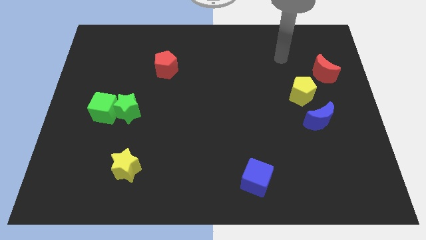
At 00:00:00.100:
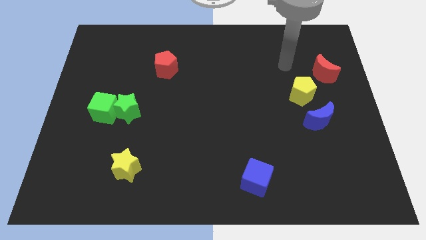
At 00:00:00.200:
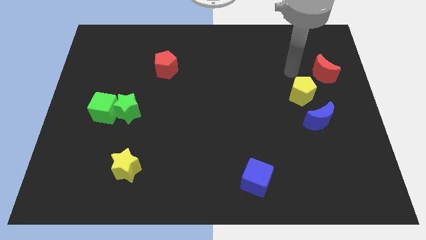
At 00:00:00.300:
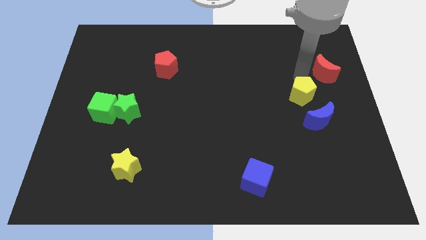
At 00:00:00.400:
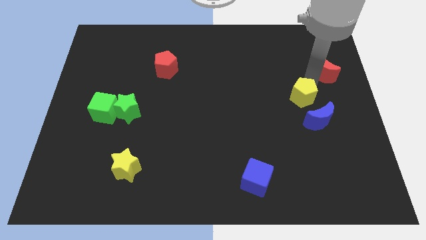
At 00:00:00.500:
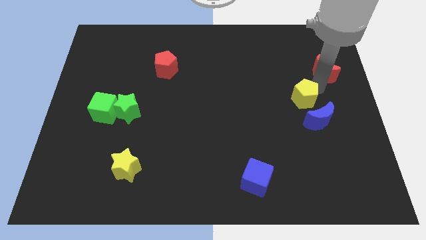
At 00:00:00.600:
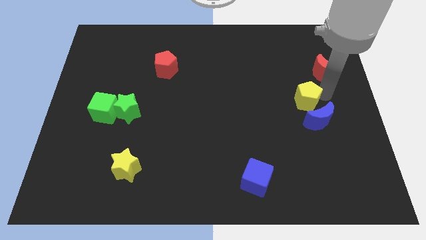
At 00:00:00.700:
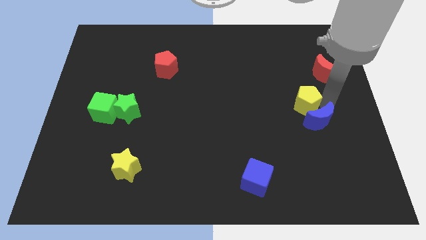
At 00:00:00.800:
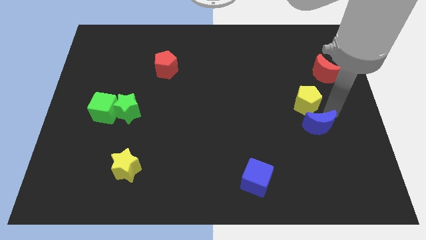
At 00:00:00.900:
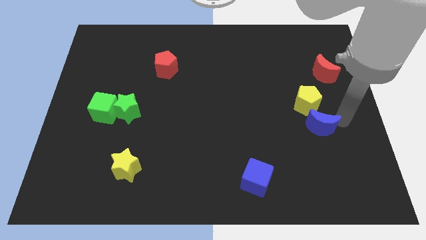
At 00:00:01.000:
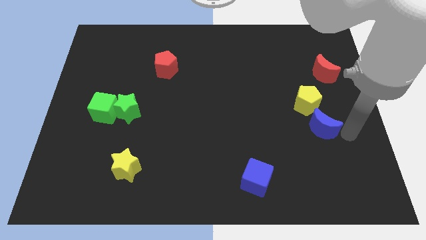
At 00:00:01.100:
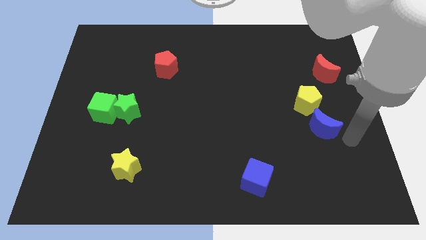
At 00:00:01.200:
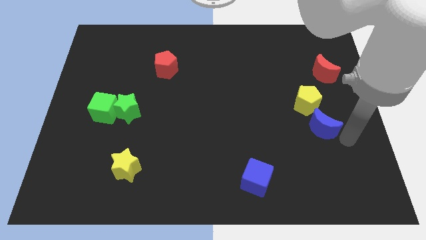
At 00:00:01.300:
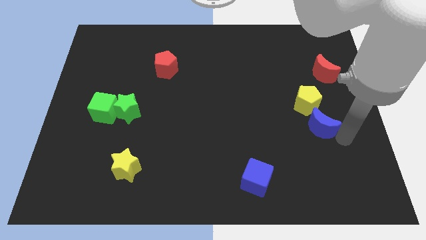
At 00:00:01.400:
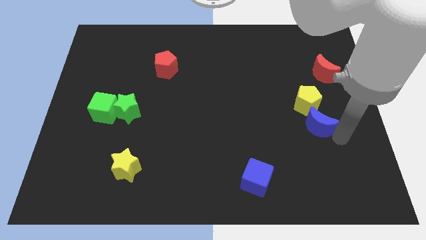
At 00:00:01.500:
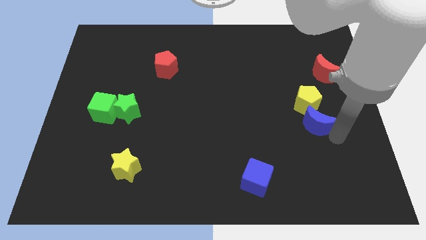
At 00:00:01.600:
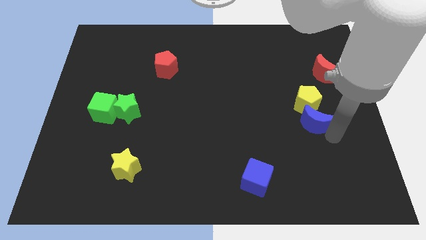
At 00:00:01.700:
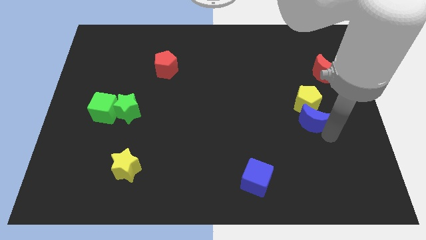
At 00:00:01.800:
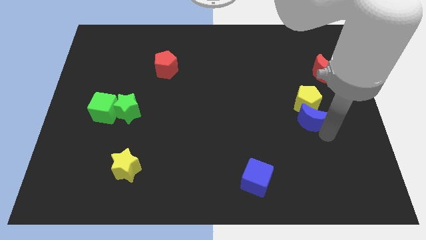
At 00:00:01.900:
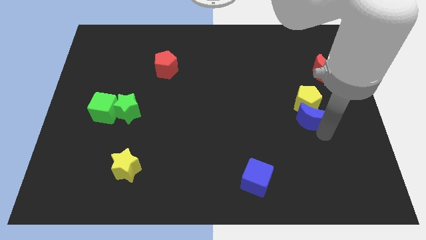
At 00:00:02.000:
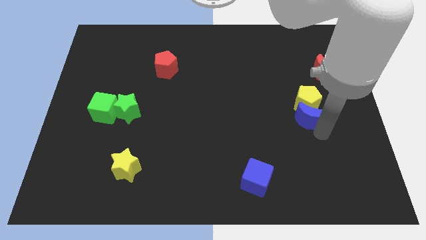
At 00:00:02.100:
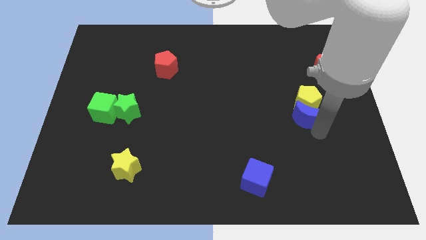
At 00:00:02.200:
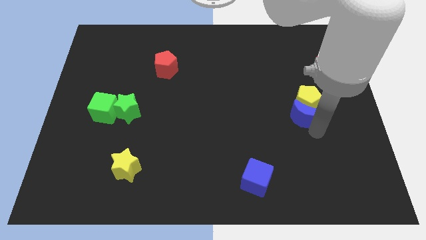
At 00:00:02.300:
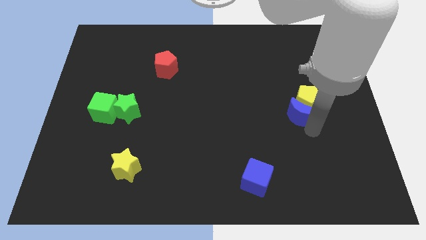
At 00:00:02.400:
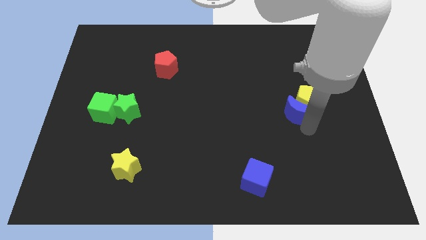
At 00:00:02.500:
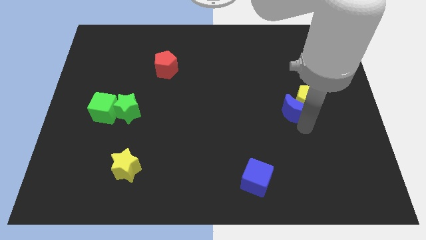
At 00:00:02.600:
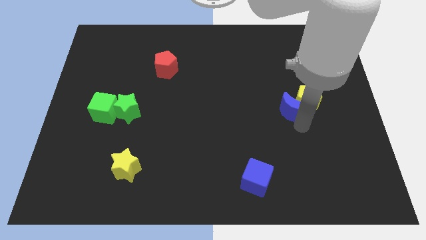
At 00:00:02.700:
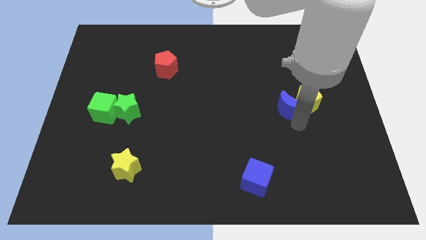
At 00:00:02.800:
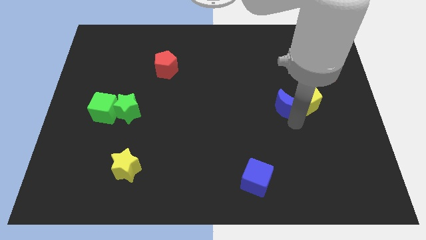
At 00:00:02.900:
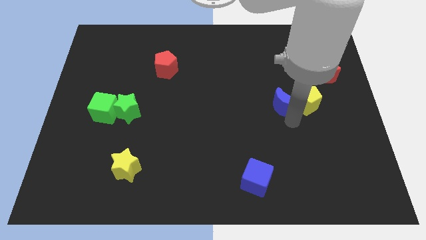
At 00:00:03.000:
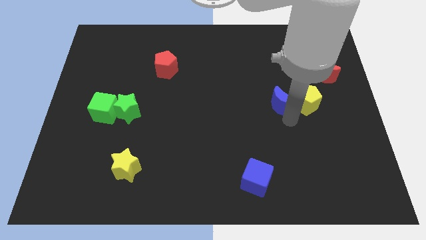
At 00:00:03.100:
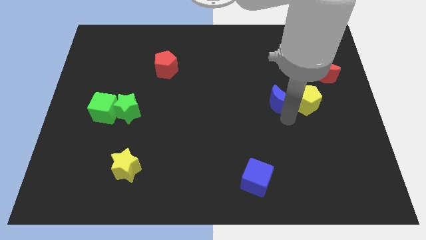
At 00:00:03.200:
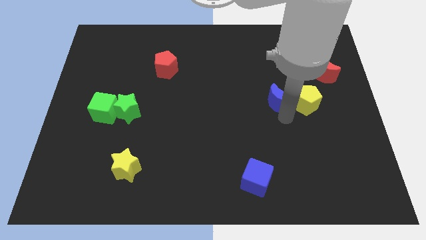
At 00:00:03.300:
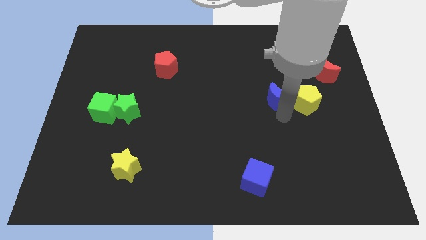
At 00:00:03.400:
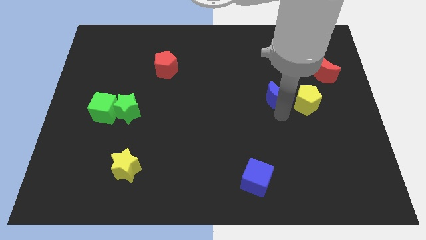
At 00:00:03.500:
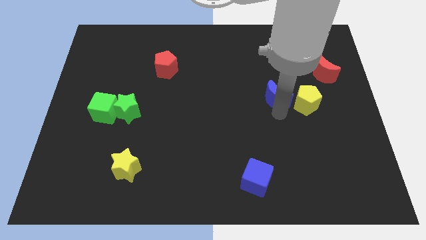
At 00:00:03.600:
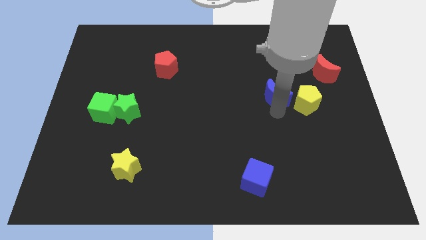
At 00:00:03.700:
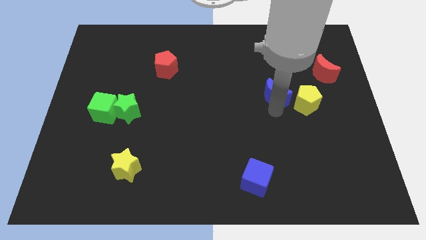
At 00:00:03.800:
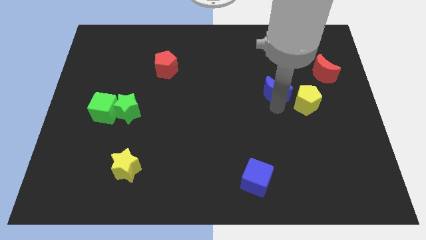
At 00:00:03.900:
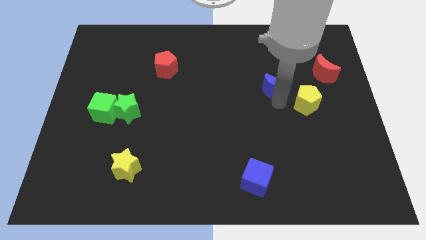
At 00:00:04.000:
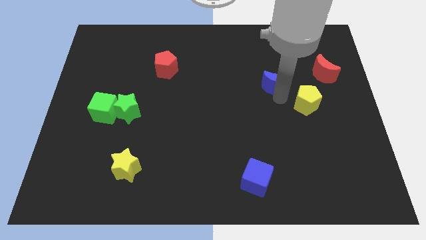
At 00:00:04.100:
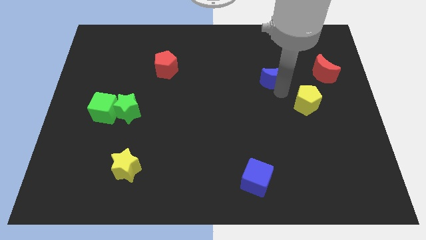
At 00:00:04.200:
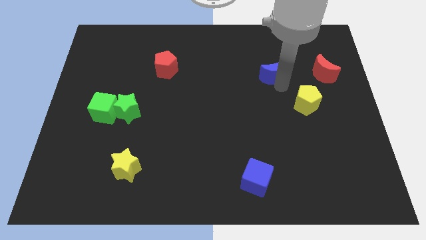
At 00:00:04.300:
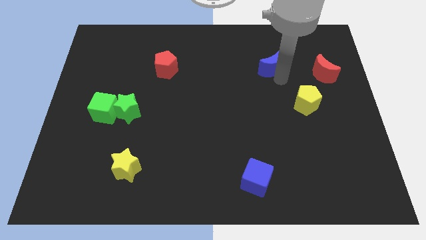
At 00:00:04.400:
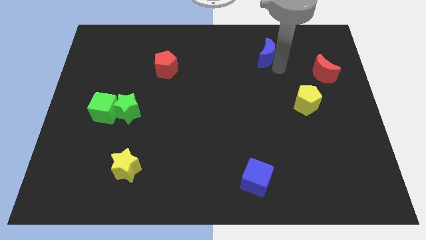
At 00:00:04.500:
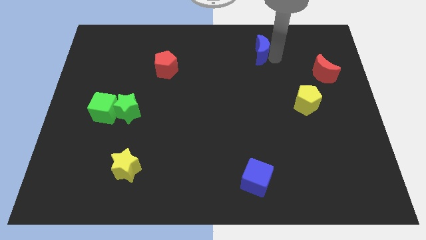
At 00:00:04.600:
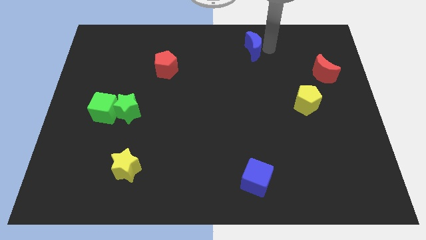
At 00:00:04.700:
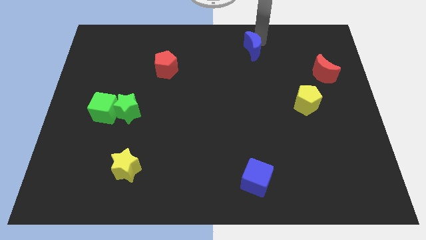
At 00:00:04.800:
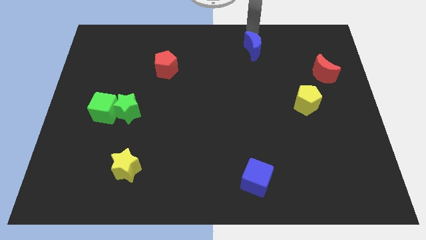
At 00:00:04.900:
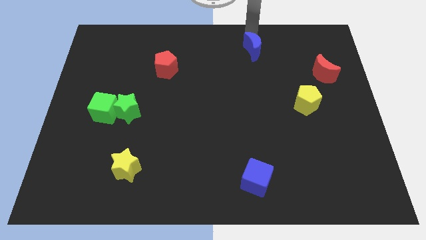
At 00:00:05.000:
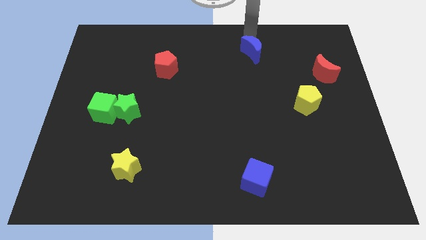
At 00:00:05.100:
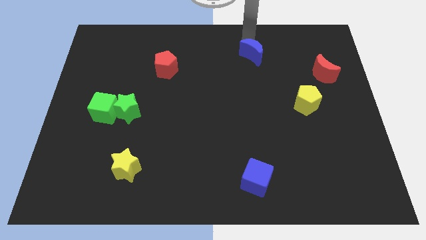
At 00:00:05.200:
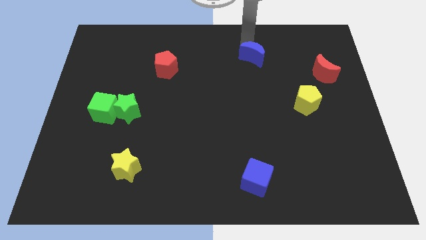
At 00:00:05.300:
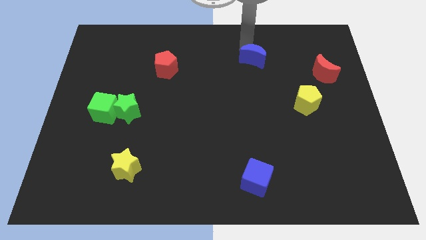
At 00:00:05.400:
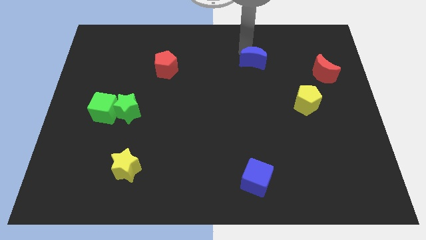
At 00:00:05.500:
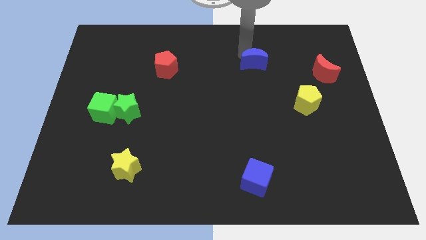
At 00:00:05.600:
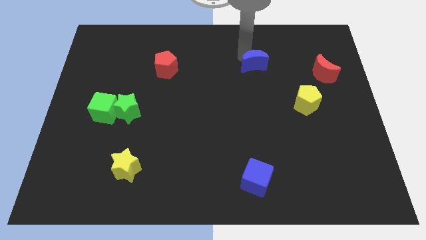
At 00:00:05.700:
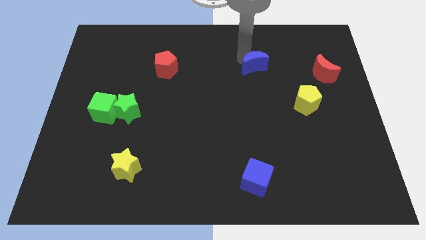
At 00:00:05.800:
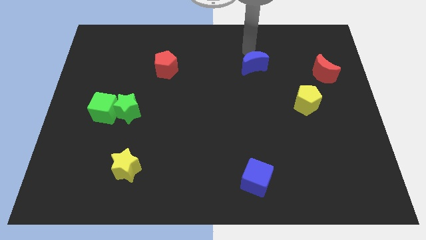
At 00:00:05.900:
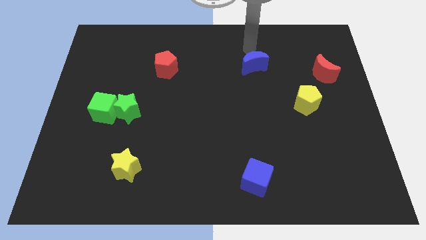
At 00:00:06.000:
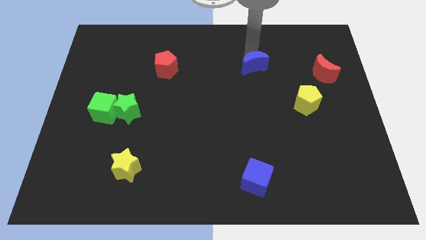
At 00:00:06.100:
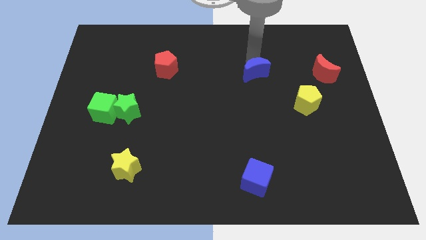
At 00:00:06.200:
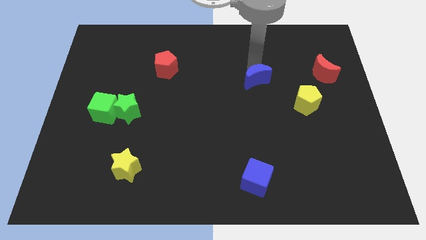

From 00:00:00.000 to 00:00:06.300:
move the blue moon to the middle
